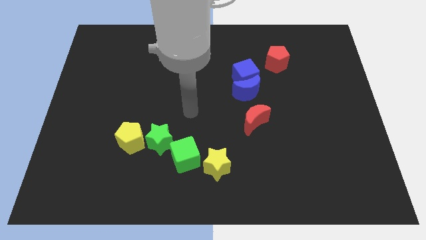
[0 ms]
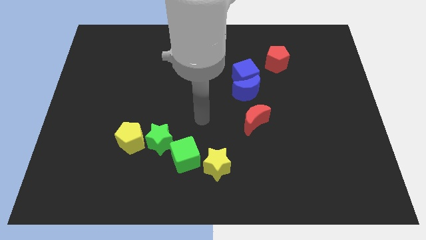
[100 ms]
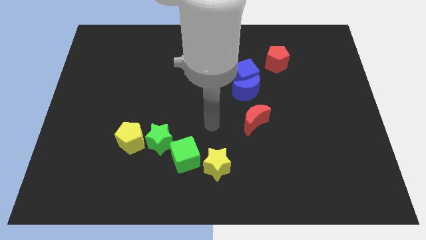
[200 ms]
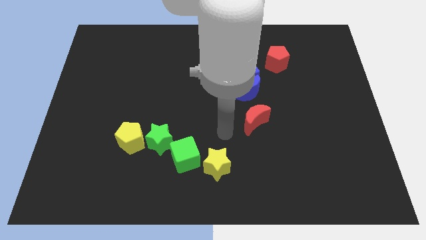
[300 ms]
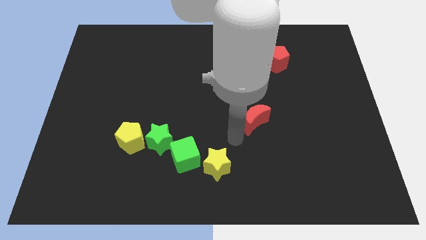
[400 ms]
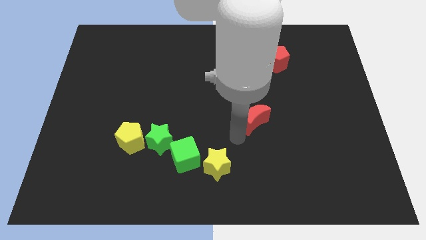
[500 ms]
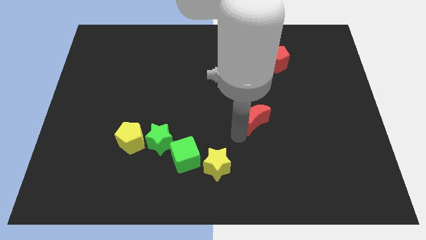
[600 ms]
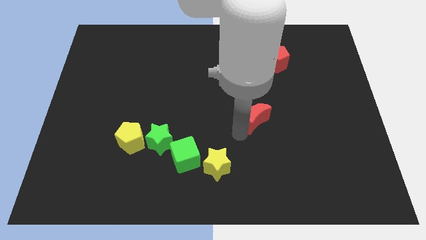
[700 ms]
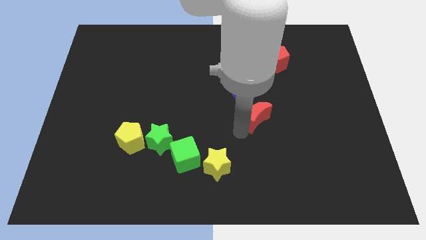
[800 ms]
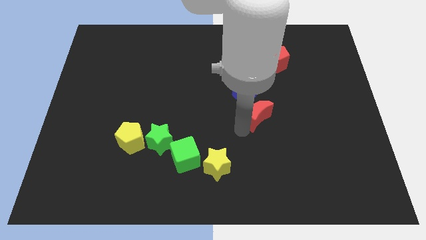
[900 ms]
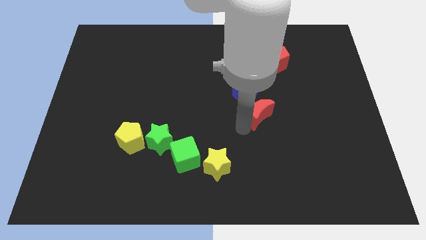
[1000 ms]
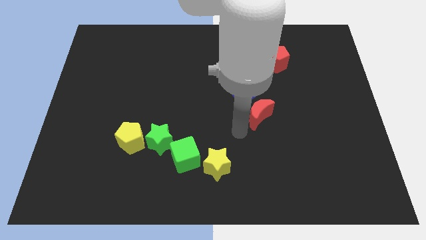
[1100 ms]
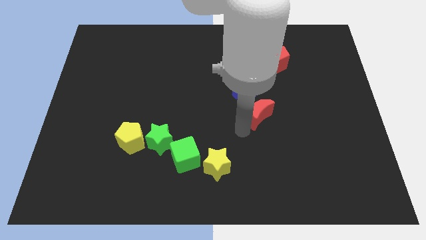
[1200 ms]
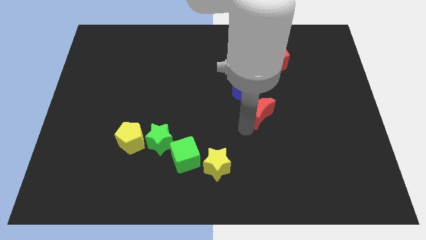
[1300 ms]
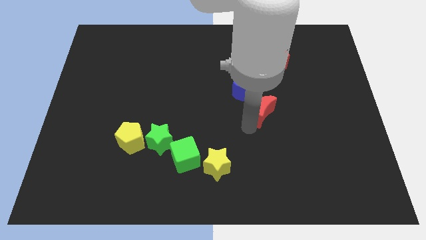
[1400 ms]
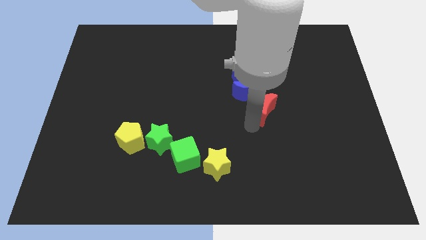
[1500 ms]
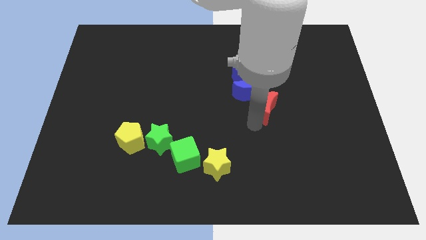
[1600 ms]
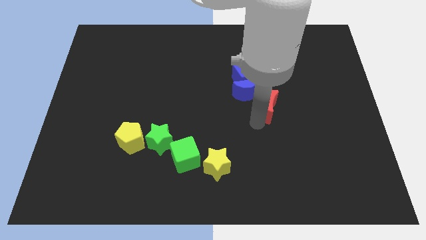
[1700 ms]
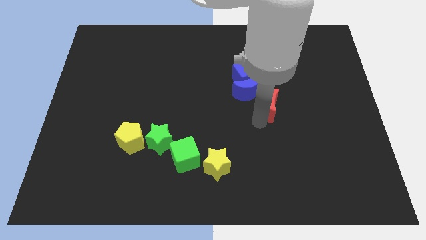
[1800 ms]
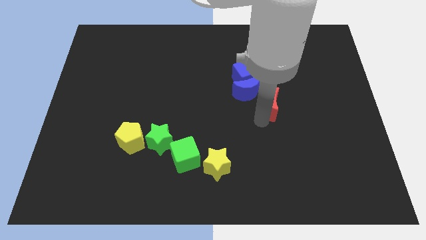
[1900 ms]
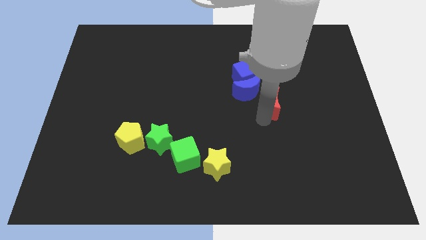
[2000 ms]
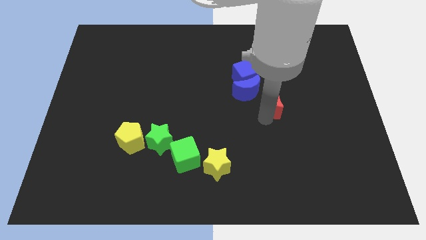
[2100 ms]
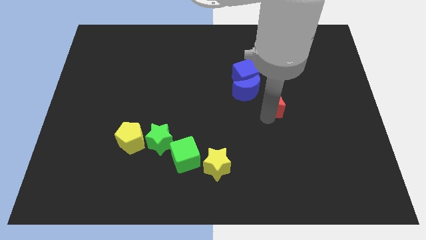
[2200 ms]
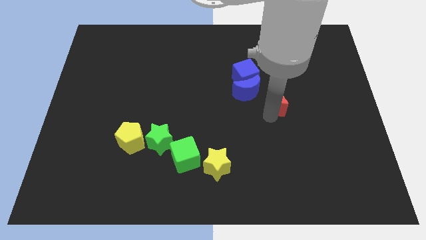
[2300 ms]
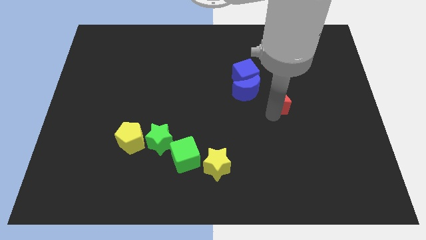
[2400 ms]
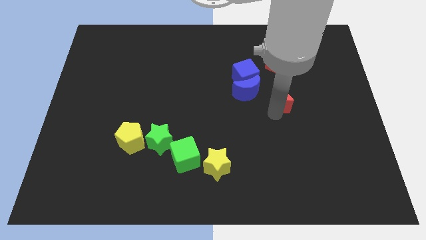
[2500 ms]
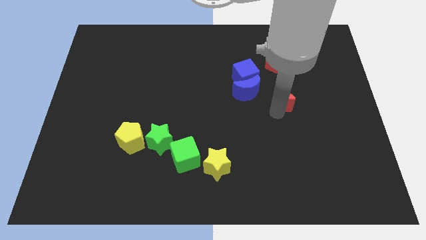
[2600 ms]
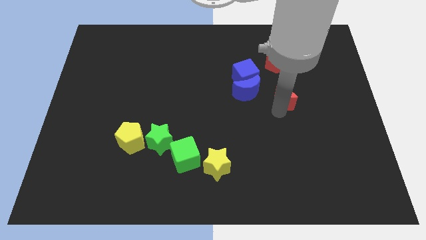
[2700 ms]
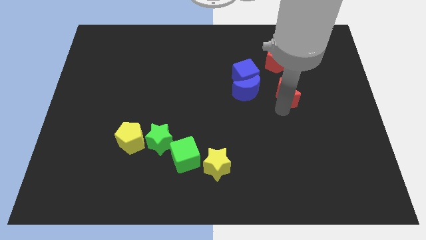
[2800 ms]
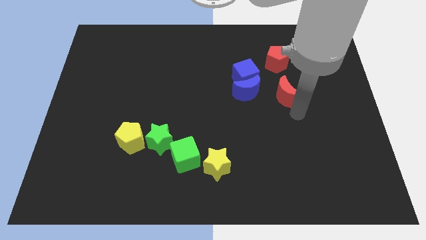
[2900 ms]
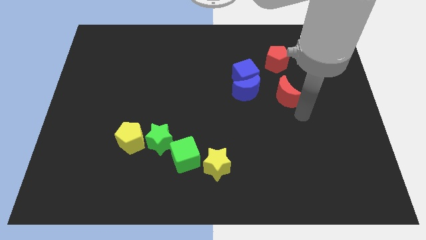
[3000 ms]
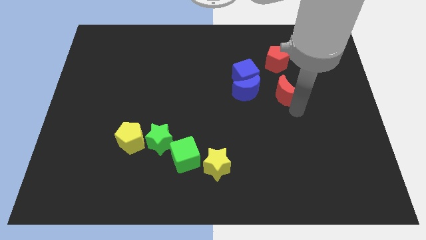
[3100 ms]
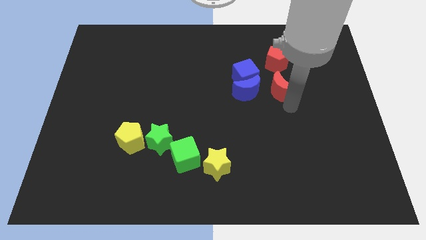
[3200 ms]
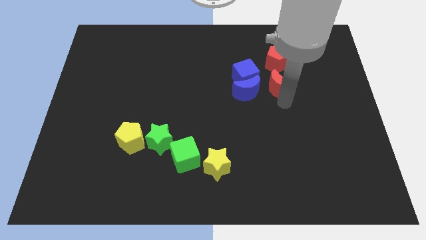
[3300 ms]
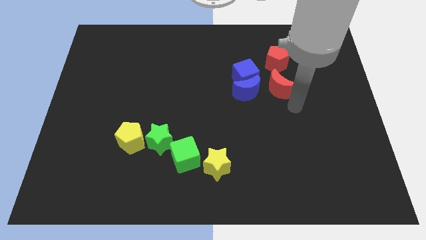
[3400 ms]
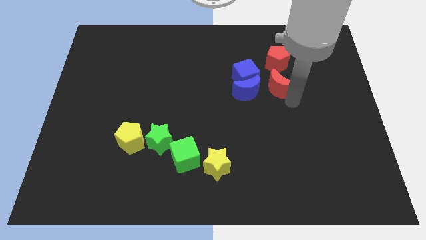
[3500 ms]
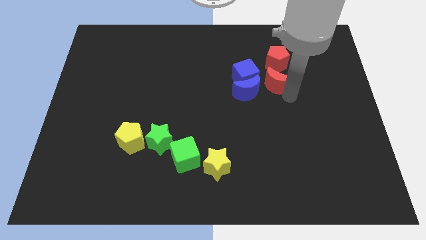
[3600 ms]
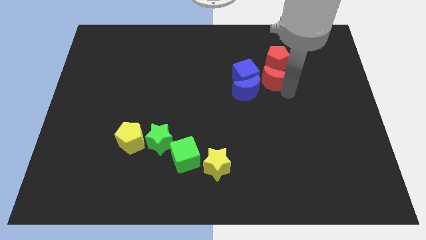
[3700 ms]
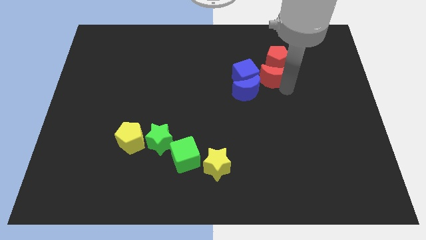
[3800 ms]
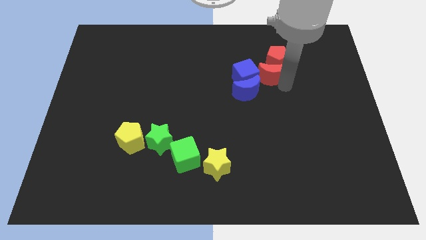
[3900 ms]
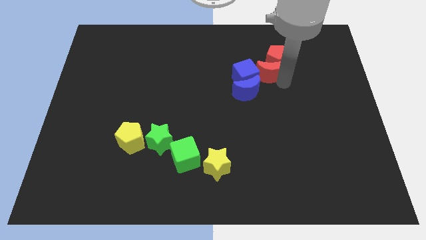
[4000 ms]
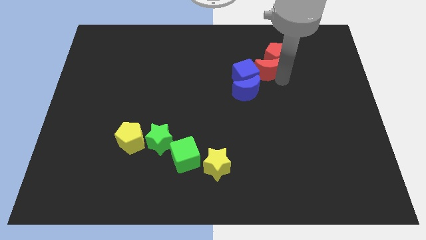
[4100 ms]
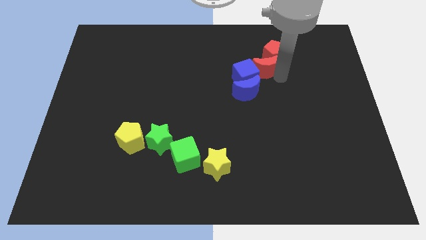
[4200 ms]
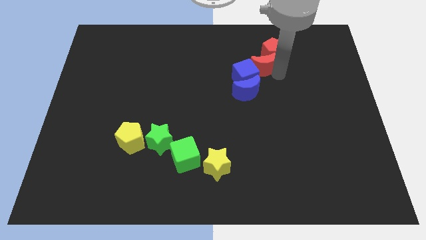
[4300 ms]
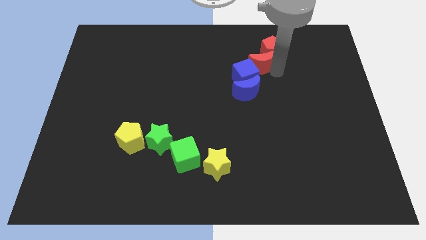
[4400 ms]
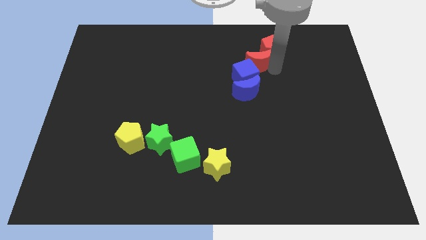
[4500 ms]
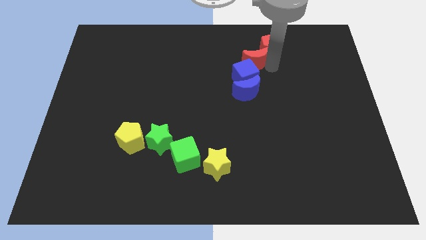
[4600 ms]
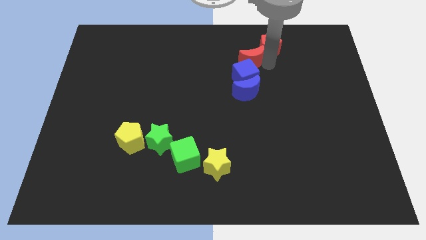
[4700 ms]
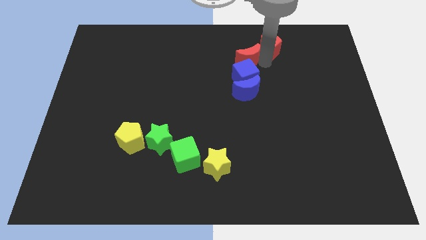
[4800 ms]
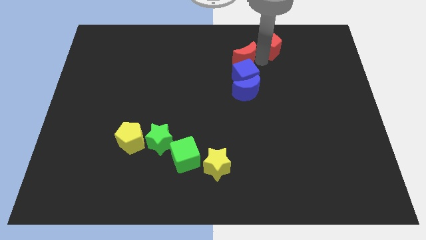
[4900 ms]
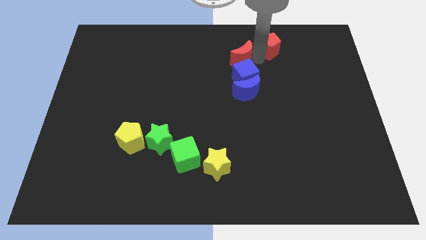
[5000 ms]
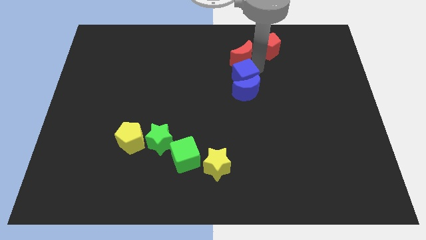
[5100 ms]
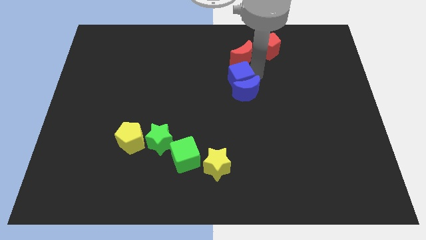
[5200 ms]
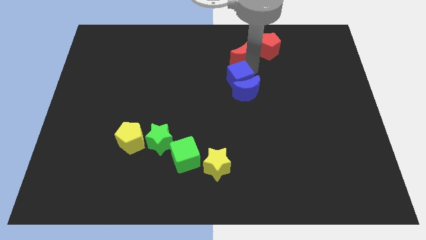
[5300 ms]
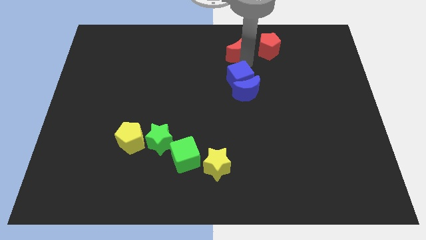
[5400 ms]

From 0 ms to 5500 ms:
push the red moon to the towards your base

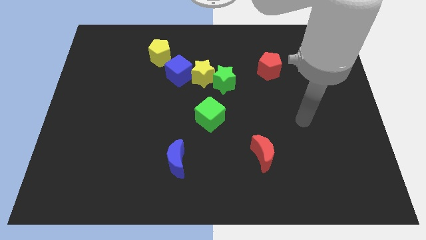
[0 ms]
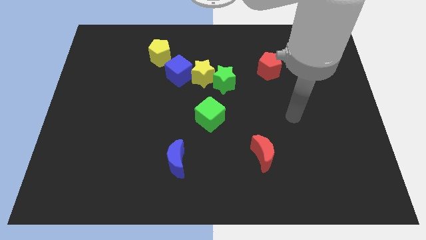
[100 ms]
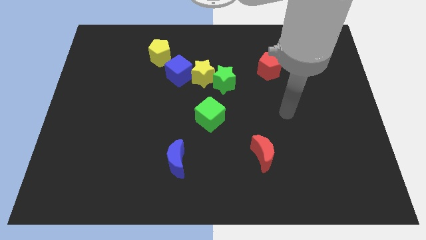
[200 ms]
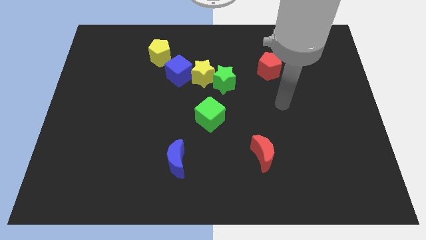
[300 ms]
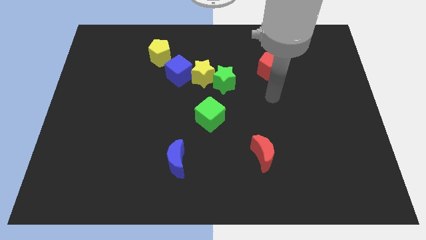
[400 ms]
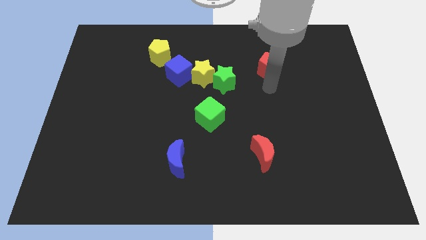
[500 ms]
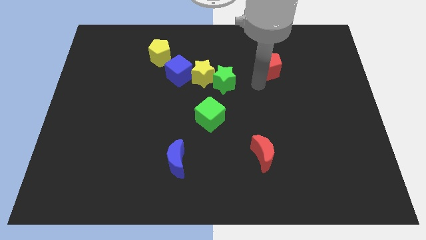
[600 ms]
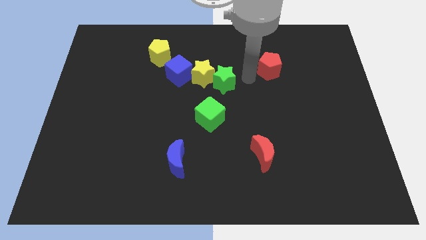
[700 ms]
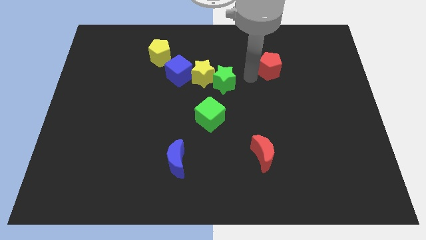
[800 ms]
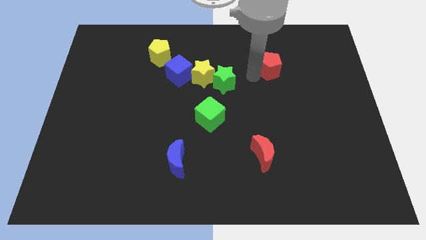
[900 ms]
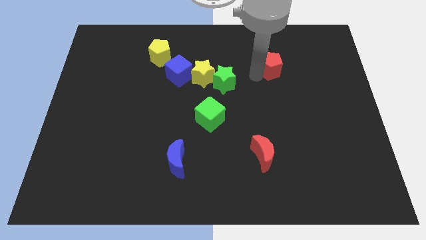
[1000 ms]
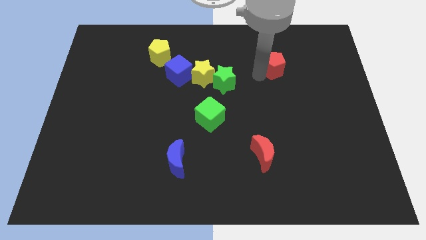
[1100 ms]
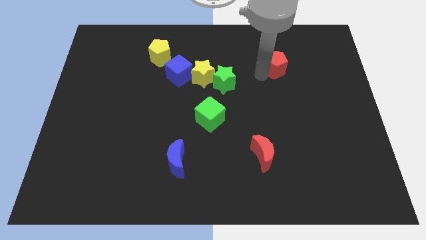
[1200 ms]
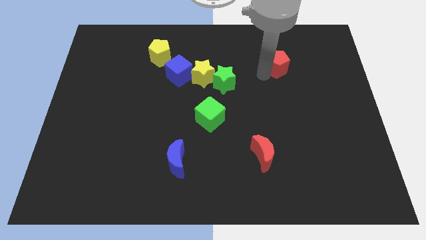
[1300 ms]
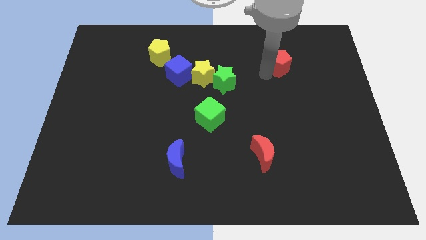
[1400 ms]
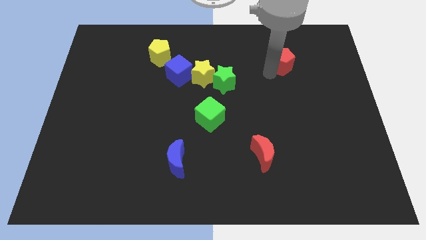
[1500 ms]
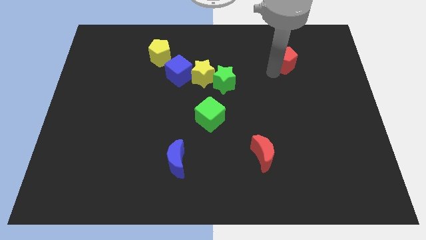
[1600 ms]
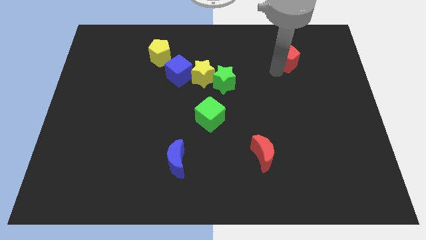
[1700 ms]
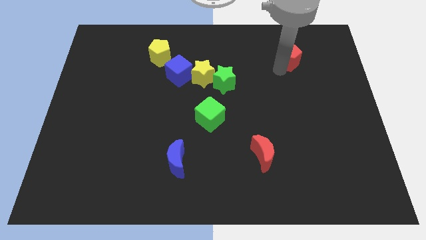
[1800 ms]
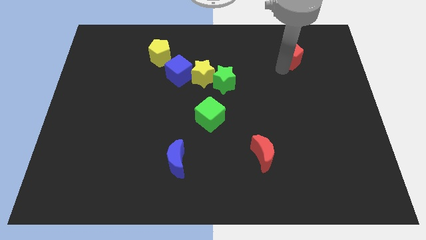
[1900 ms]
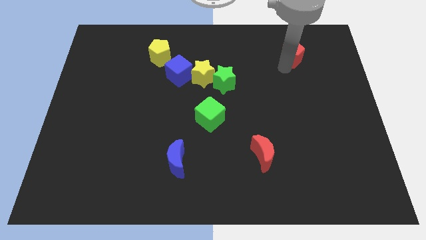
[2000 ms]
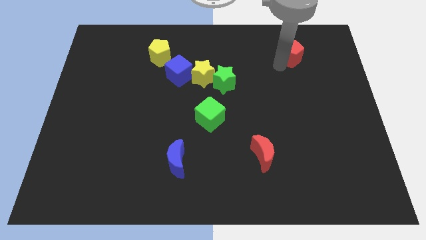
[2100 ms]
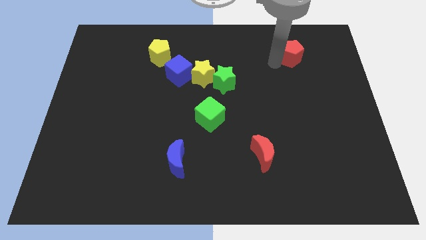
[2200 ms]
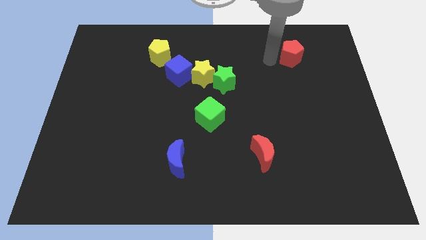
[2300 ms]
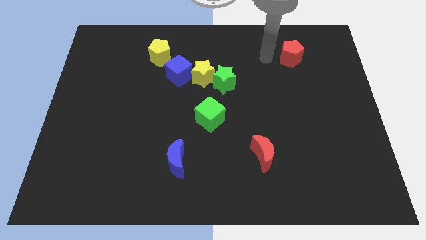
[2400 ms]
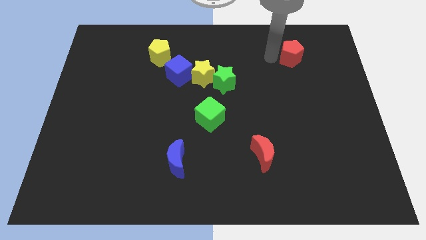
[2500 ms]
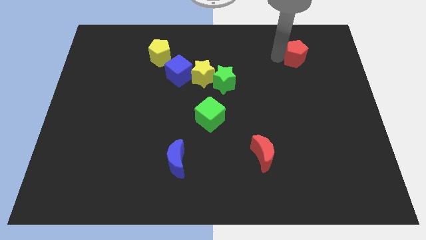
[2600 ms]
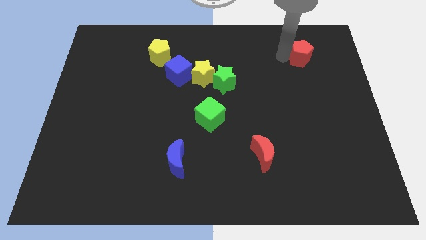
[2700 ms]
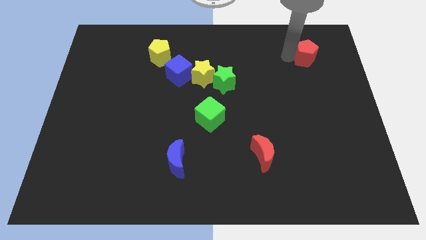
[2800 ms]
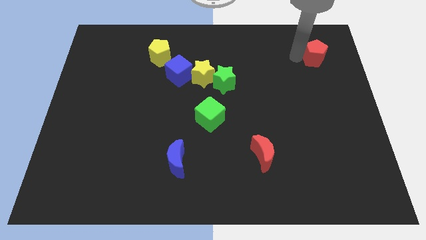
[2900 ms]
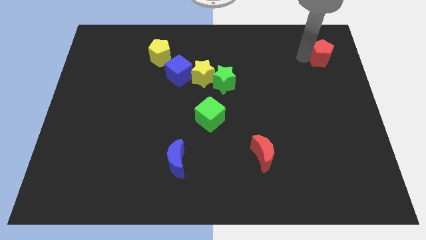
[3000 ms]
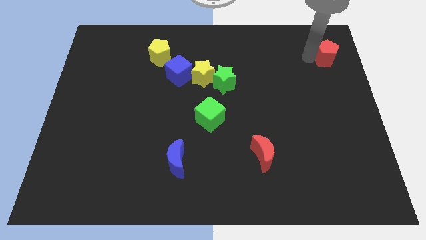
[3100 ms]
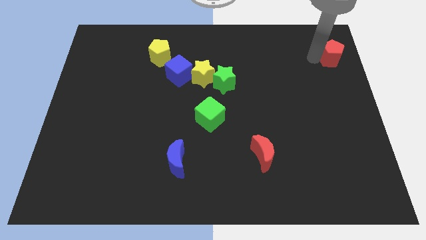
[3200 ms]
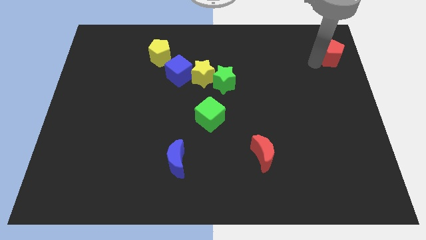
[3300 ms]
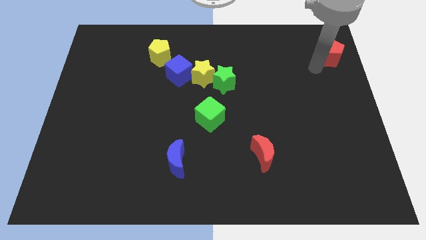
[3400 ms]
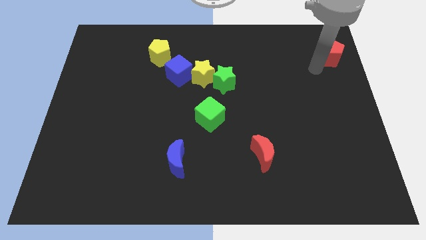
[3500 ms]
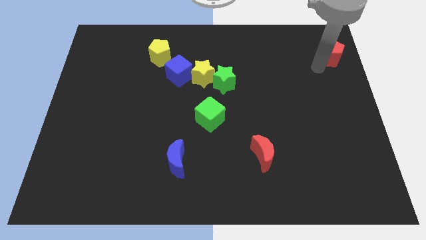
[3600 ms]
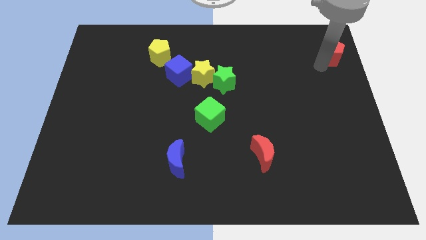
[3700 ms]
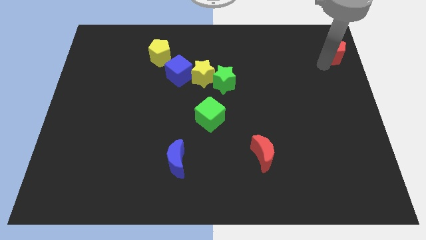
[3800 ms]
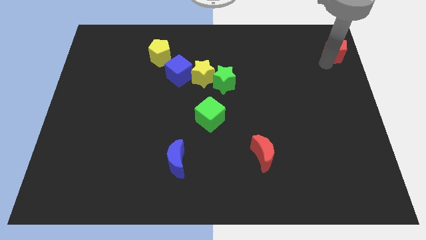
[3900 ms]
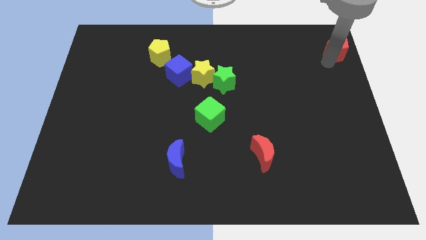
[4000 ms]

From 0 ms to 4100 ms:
slide the red pentagon to the top right of the board
